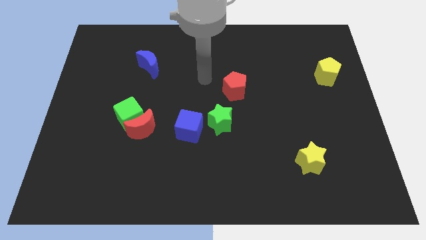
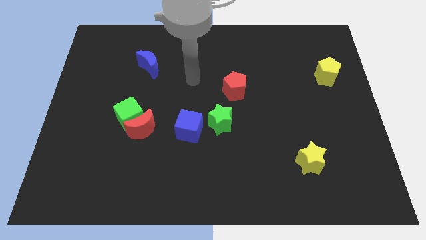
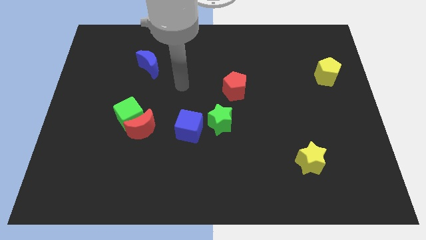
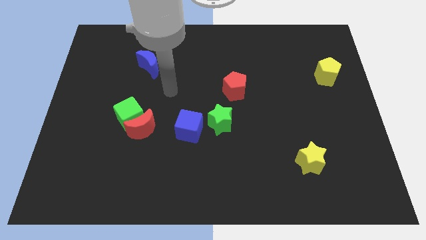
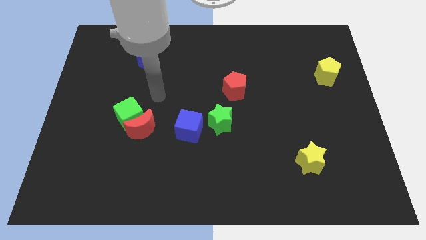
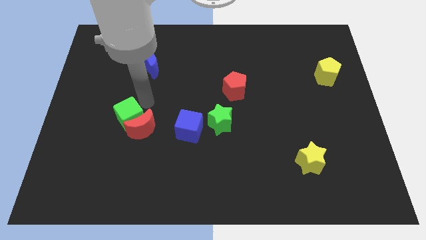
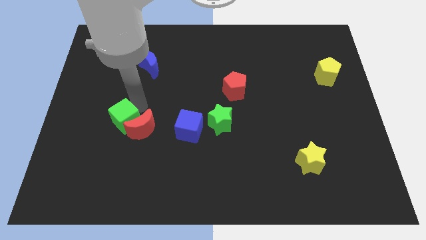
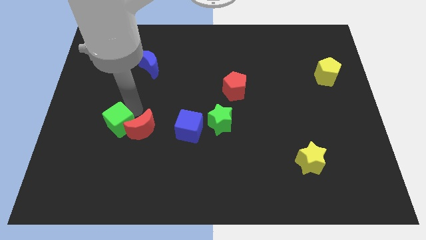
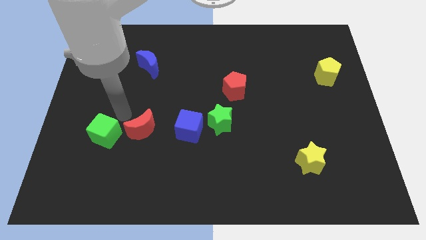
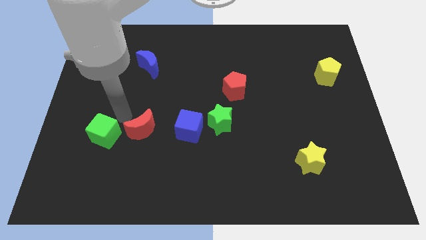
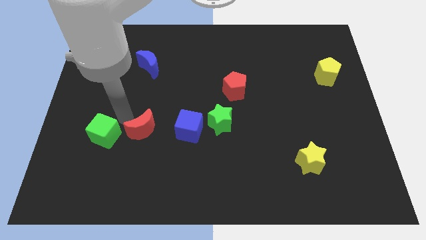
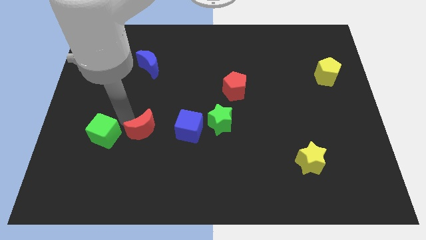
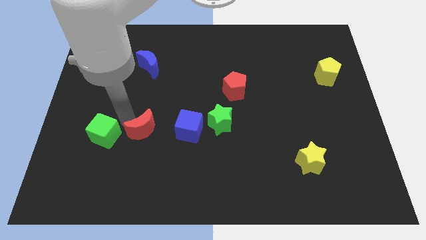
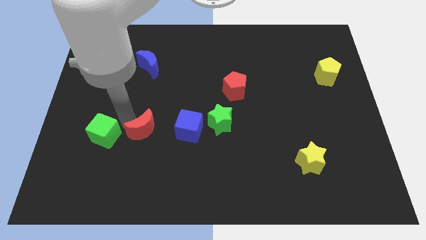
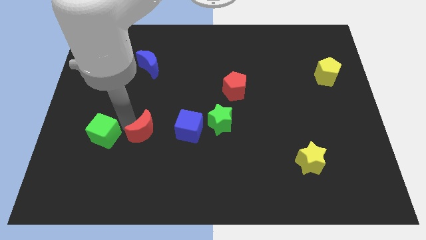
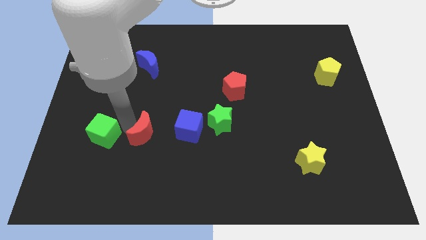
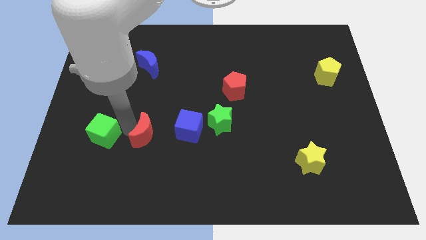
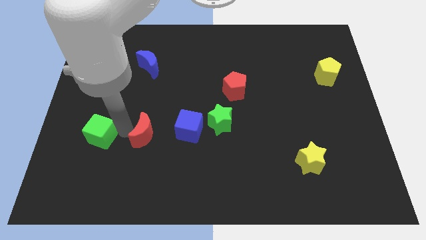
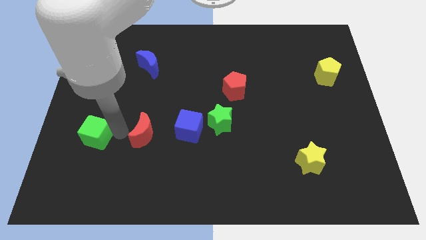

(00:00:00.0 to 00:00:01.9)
move the red moon away from the green cube

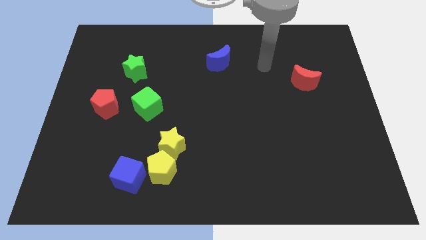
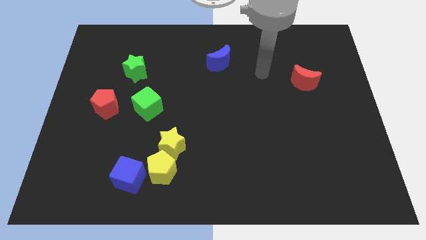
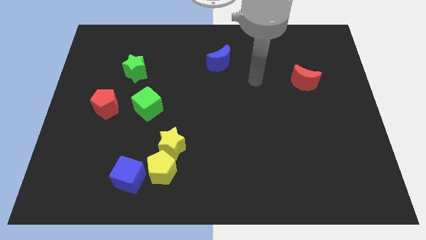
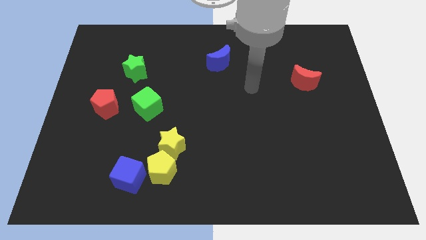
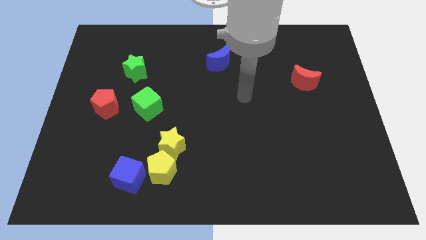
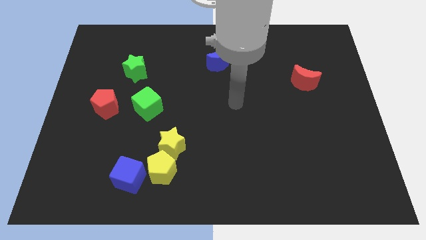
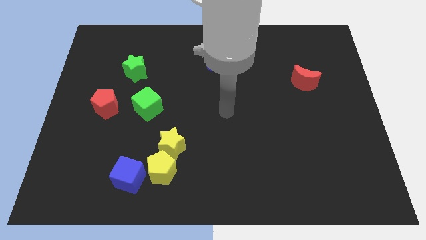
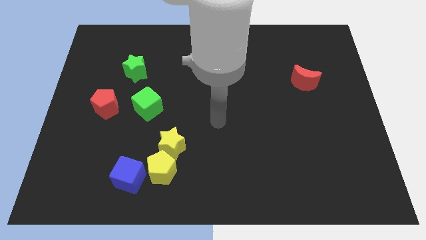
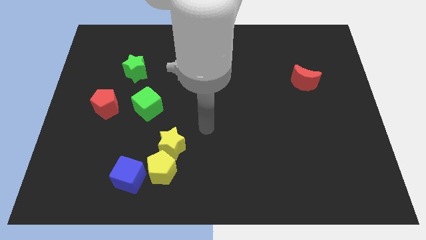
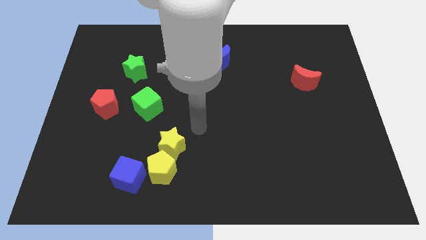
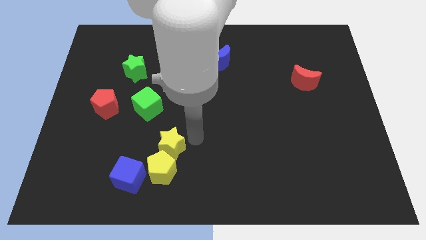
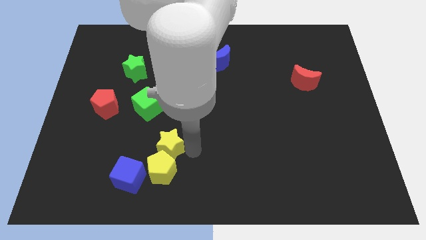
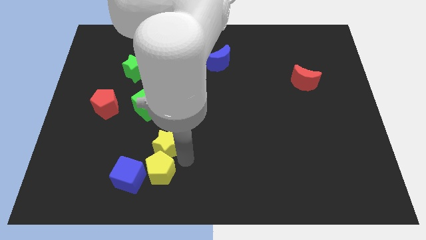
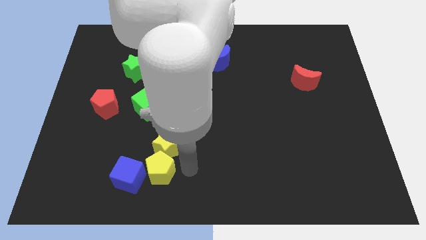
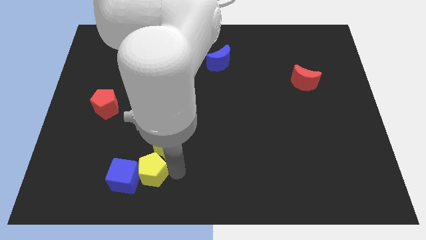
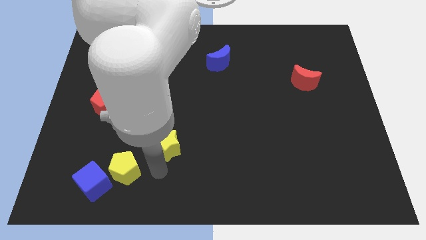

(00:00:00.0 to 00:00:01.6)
pull the yellow star apart from the yellow pentagon

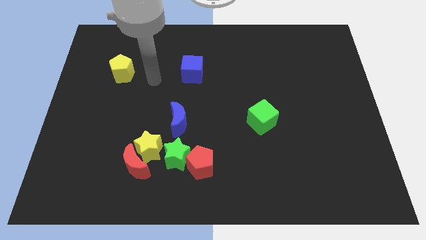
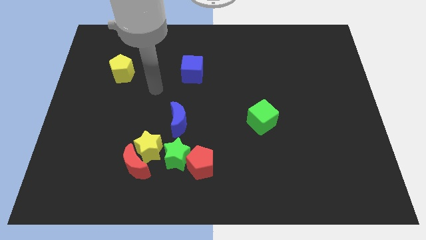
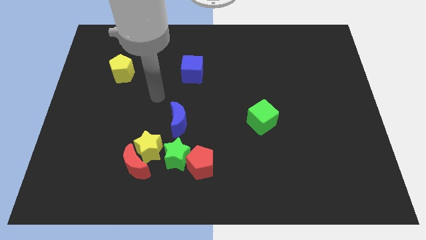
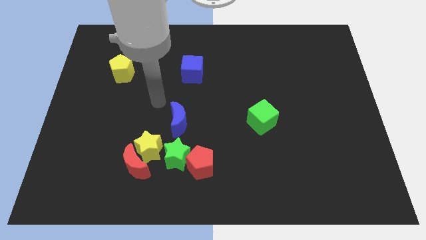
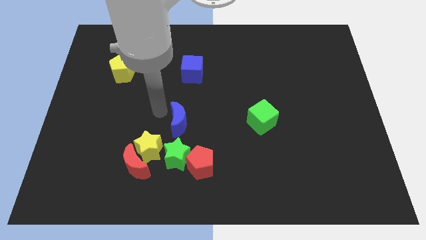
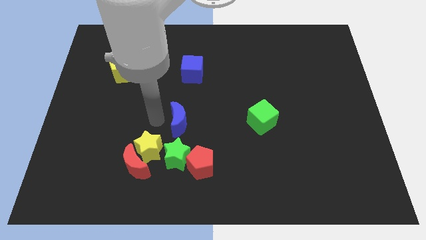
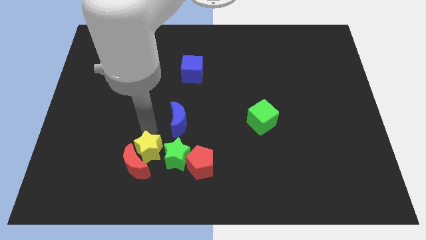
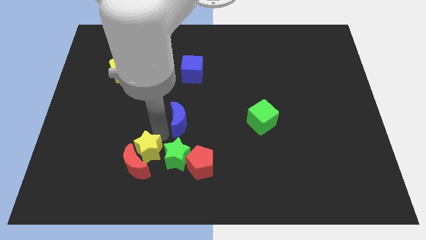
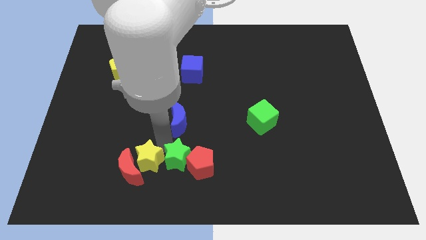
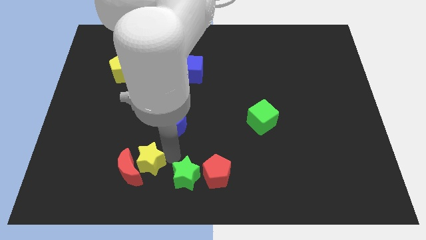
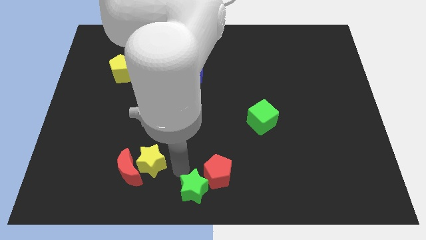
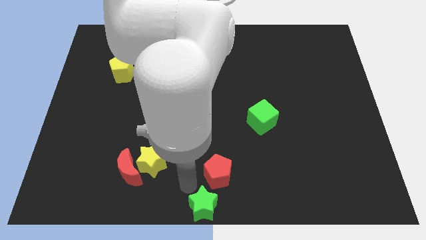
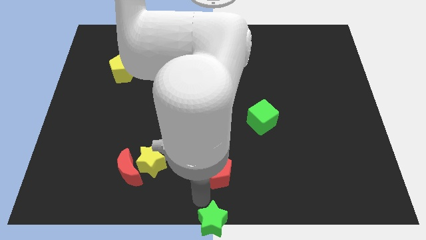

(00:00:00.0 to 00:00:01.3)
pull the red pentagon apart from the green star

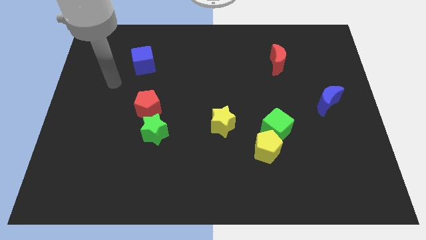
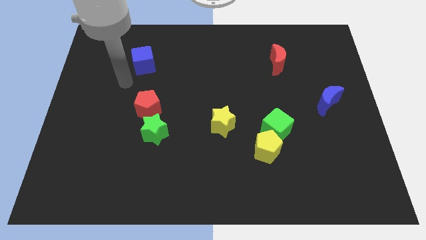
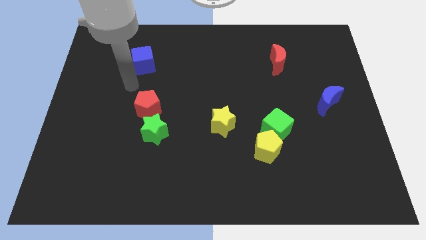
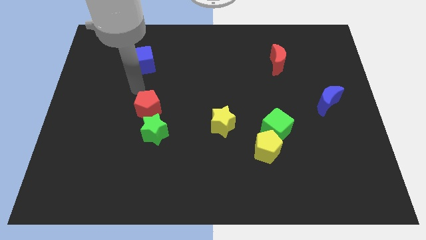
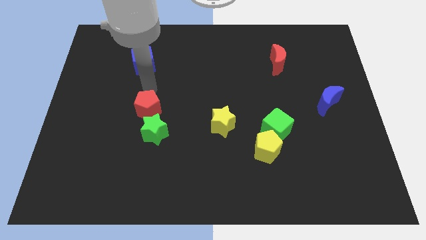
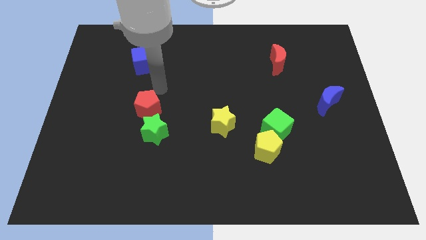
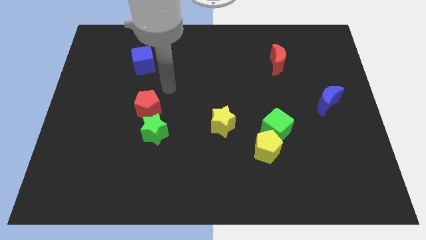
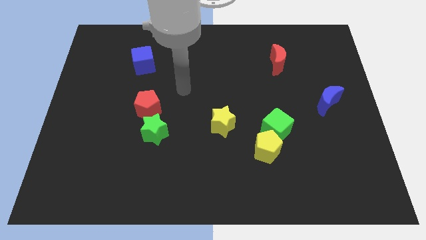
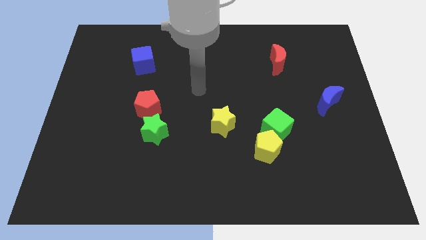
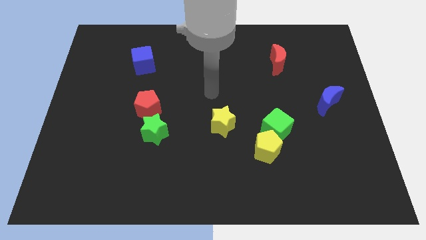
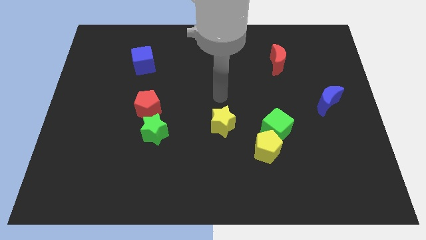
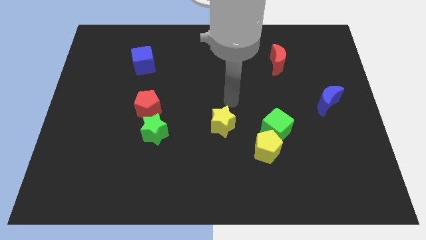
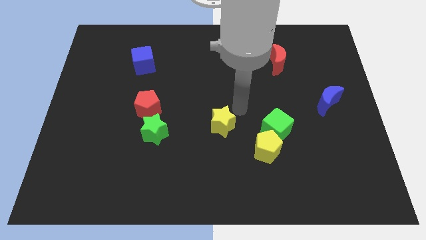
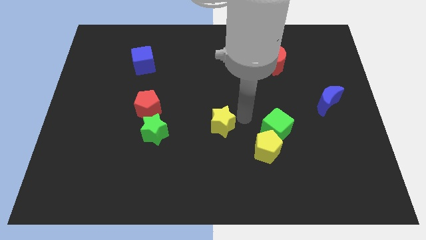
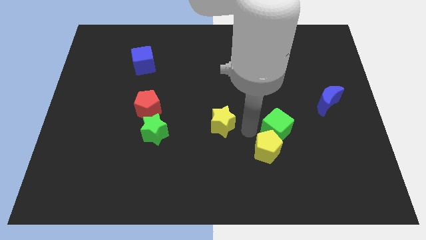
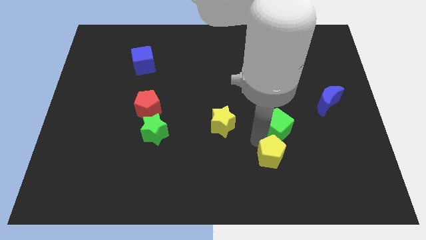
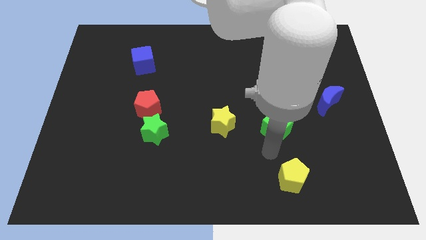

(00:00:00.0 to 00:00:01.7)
pull the green cube apart from the yellow pentagon

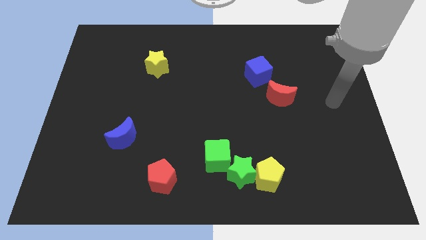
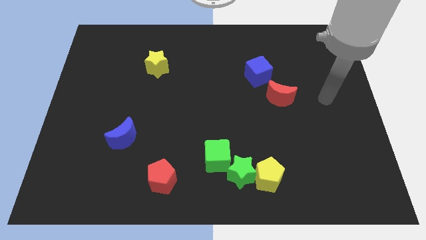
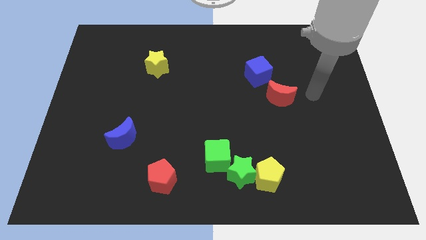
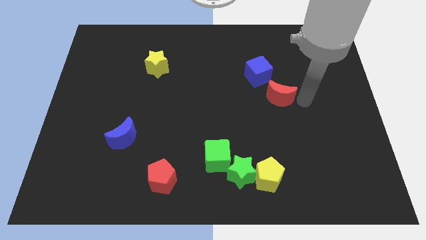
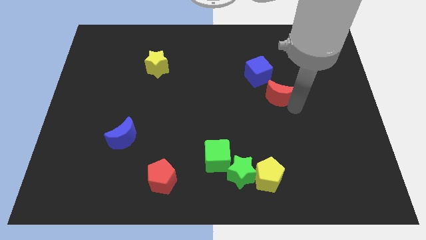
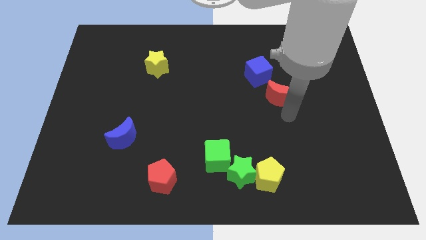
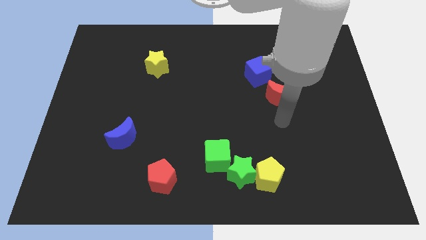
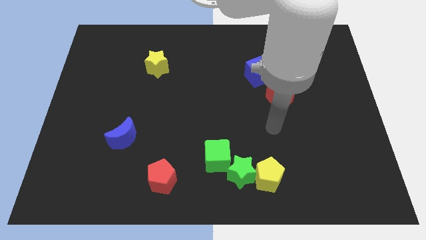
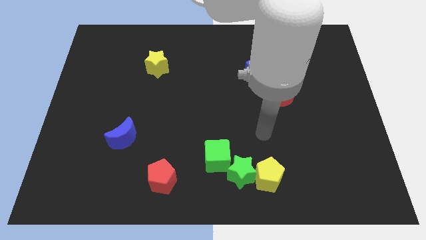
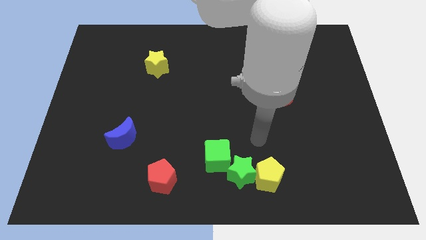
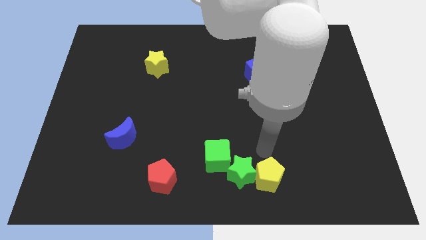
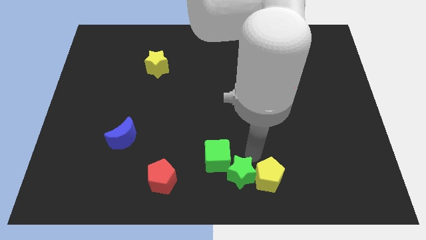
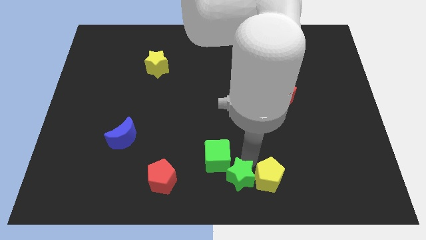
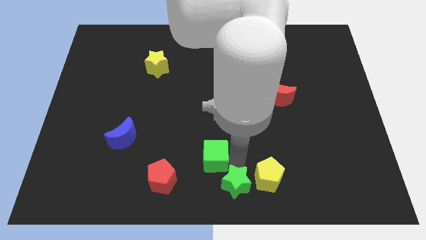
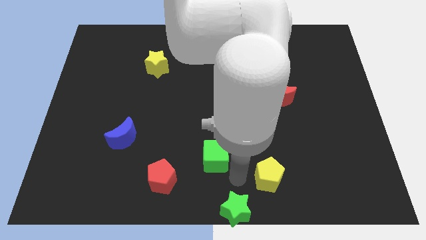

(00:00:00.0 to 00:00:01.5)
pull the yellow pentagon apart from the green star

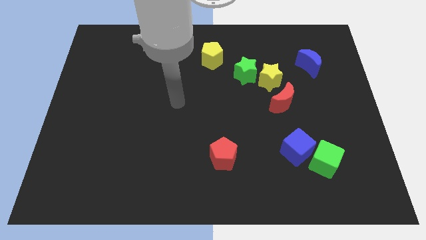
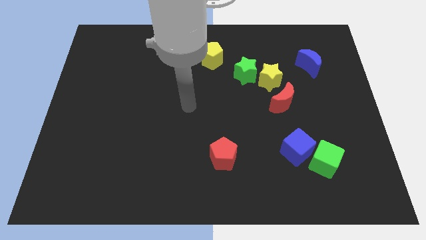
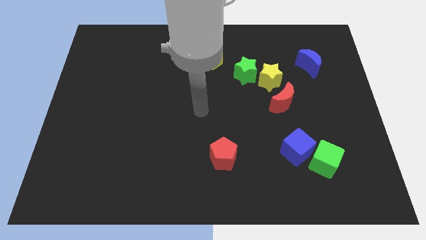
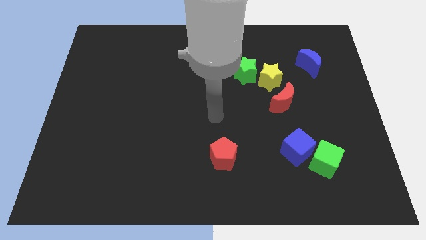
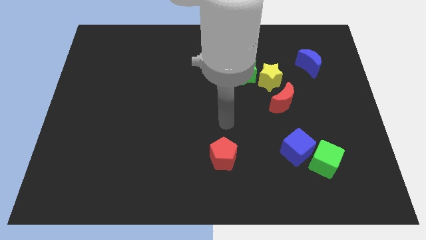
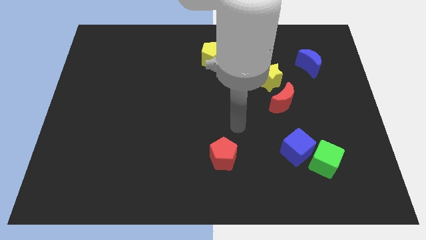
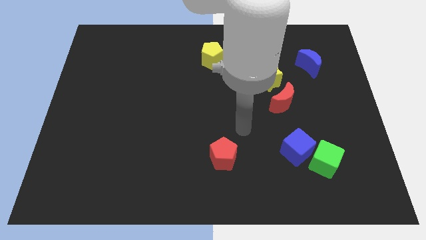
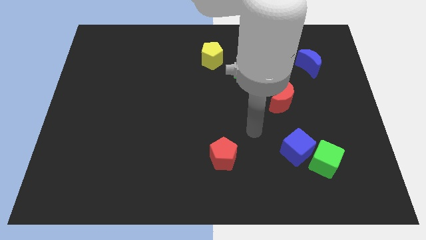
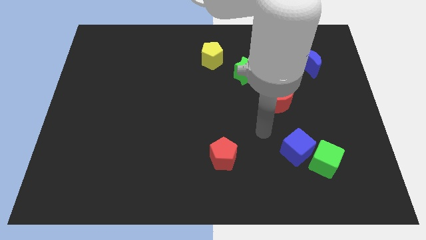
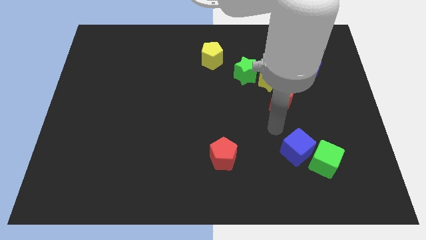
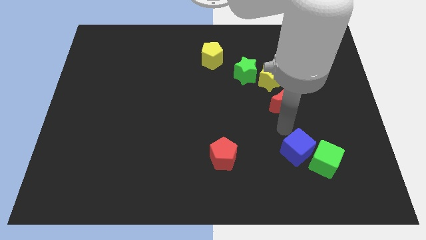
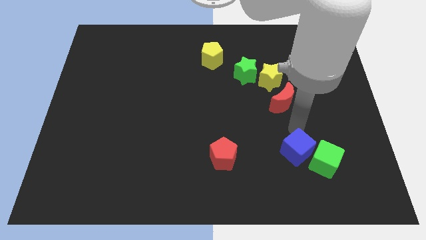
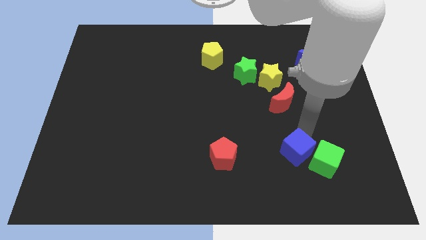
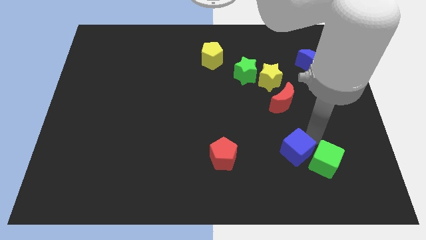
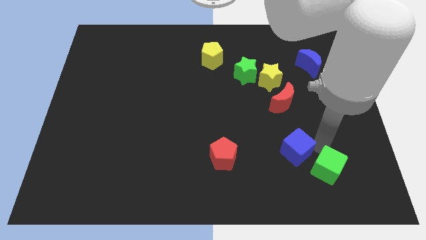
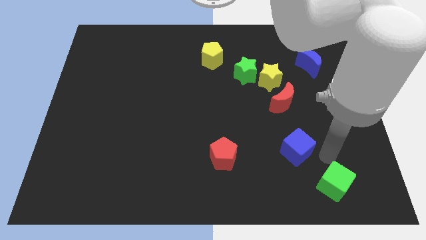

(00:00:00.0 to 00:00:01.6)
separate the blue cube from the green cube
